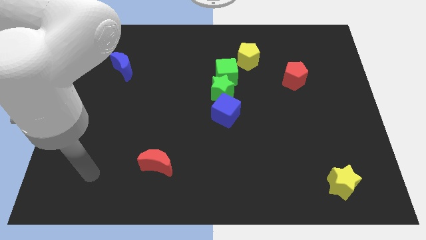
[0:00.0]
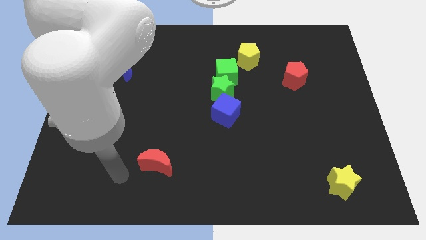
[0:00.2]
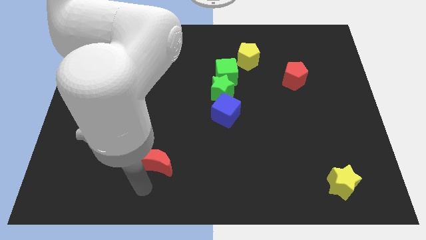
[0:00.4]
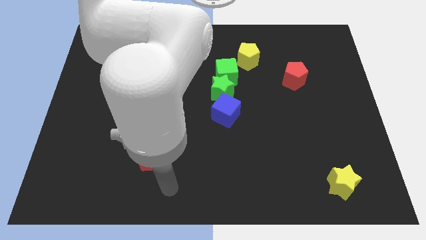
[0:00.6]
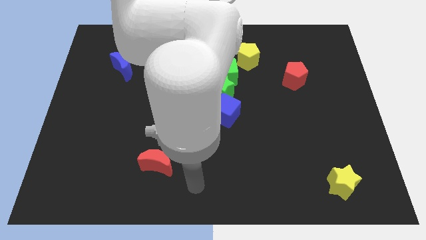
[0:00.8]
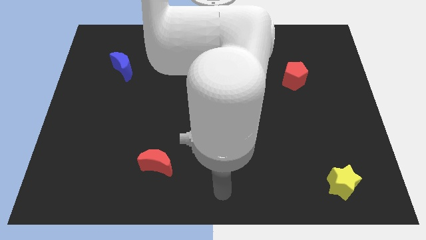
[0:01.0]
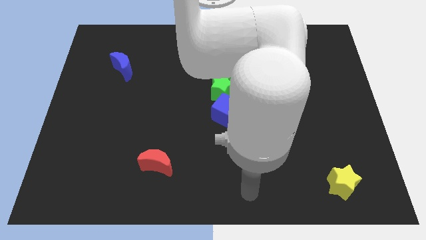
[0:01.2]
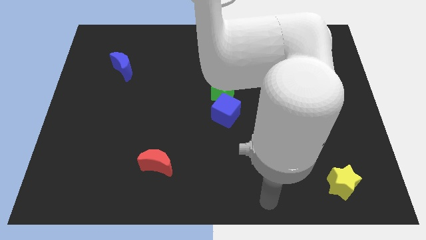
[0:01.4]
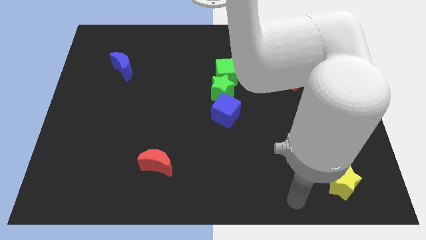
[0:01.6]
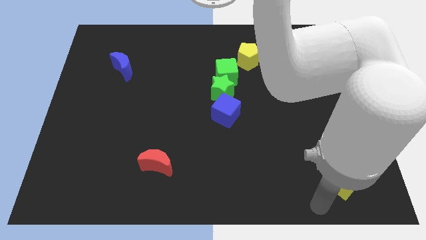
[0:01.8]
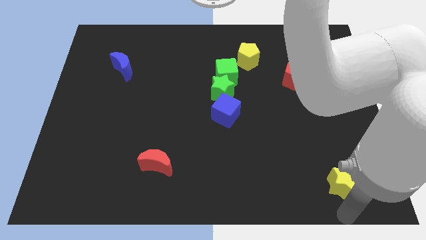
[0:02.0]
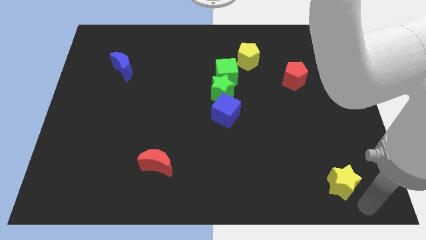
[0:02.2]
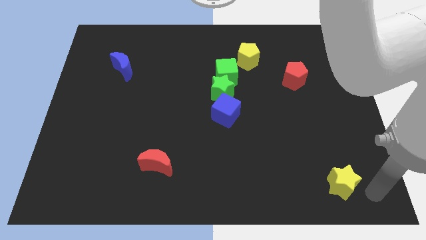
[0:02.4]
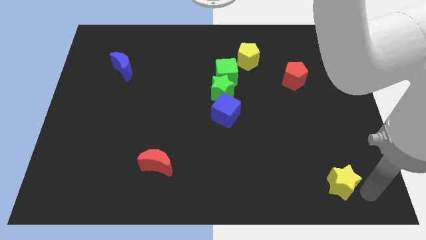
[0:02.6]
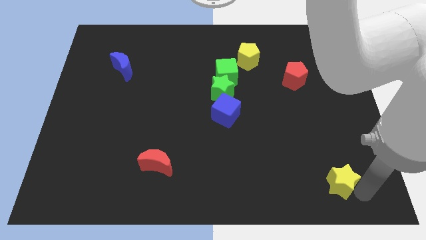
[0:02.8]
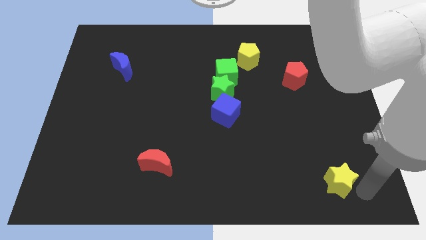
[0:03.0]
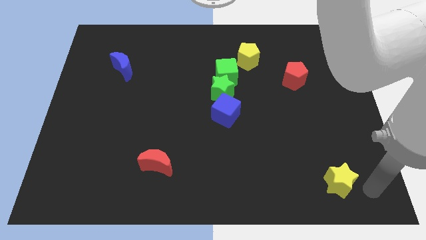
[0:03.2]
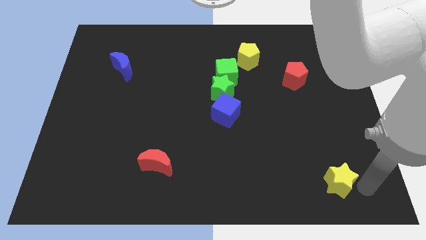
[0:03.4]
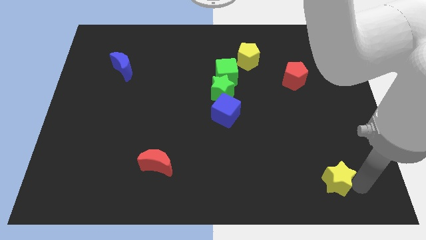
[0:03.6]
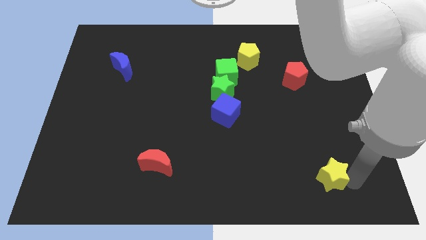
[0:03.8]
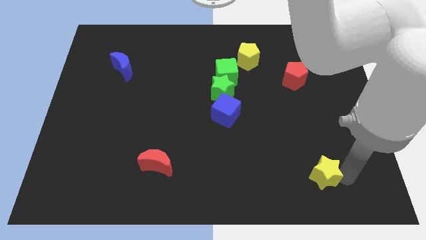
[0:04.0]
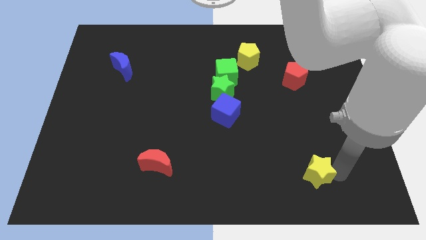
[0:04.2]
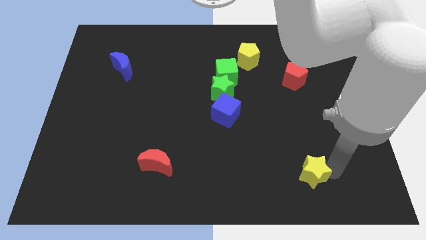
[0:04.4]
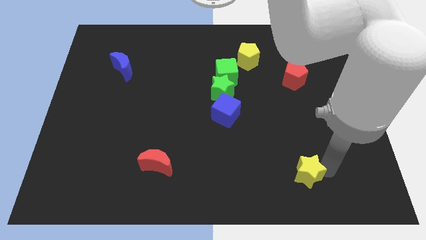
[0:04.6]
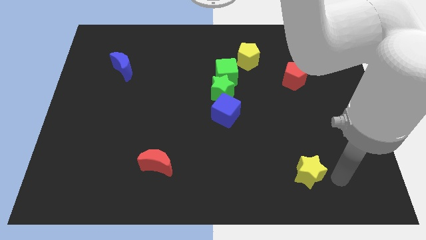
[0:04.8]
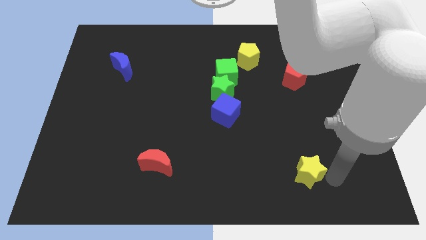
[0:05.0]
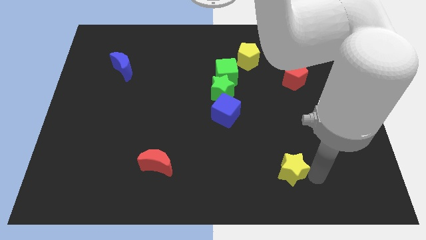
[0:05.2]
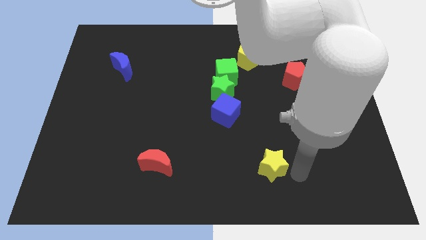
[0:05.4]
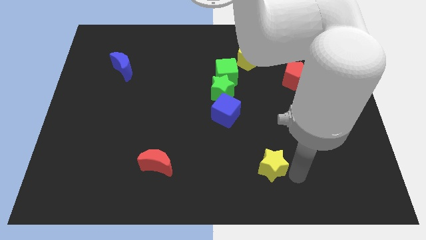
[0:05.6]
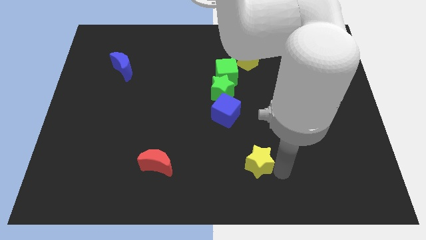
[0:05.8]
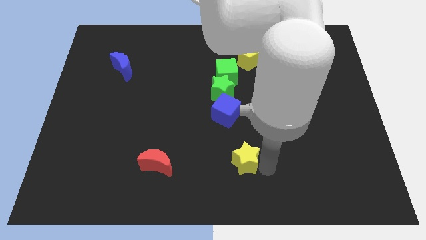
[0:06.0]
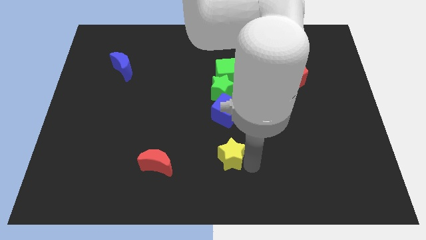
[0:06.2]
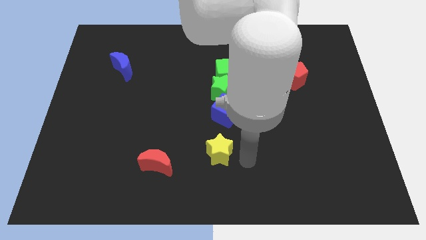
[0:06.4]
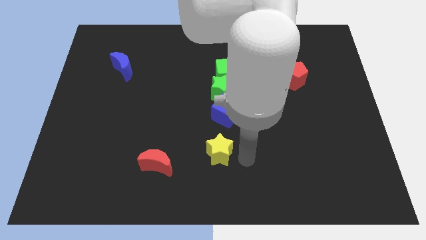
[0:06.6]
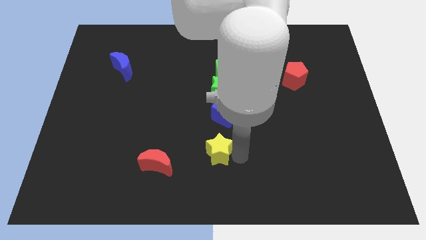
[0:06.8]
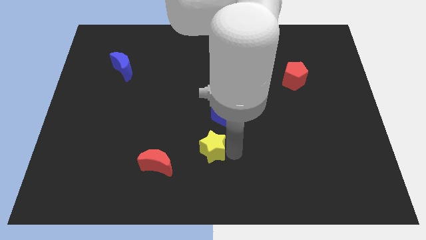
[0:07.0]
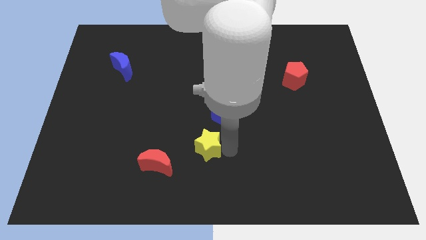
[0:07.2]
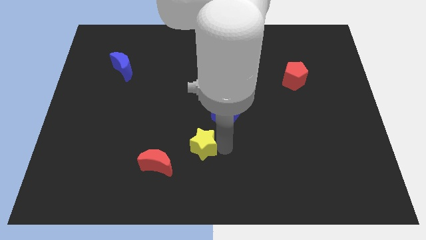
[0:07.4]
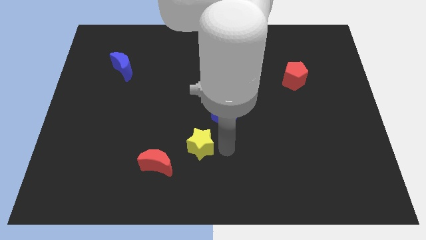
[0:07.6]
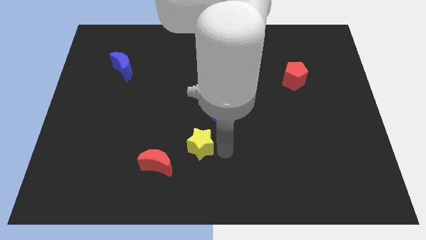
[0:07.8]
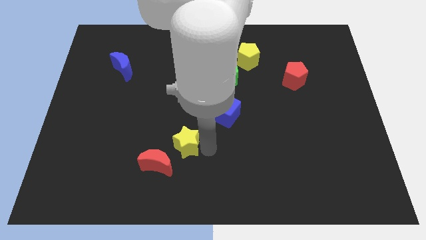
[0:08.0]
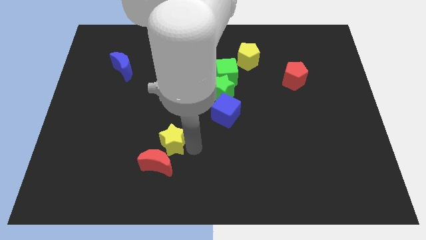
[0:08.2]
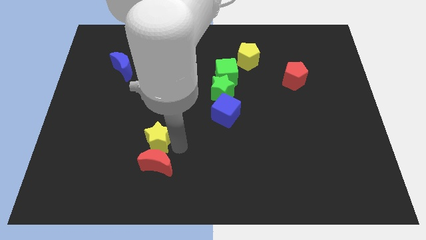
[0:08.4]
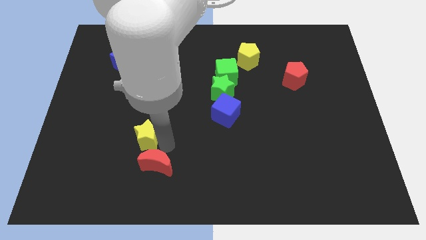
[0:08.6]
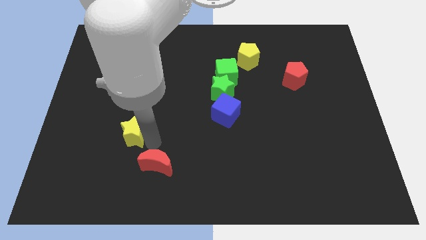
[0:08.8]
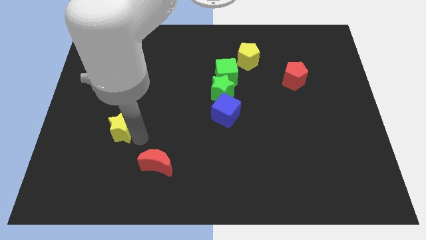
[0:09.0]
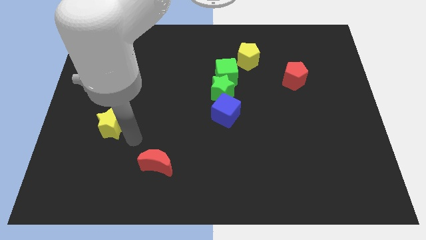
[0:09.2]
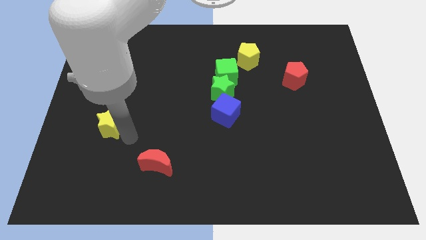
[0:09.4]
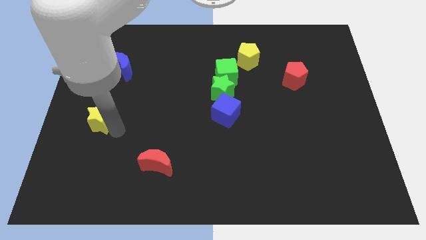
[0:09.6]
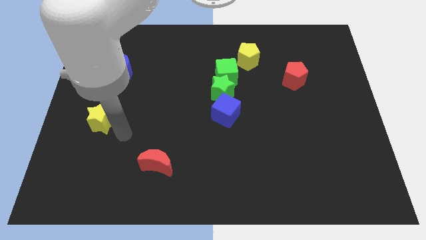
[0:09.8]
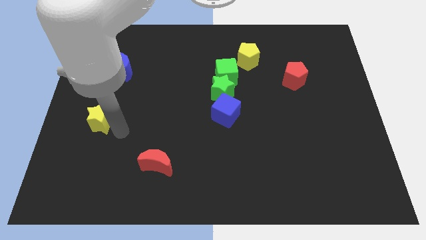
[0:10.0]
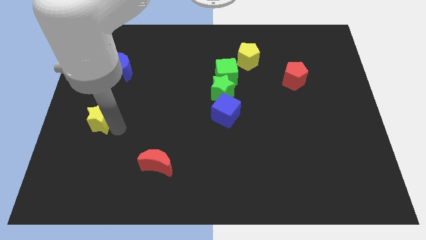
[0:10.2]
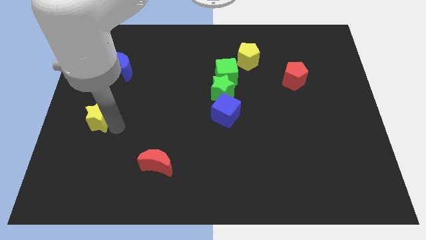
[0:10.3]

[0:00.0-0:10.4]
push the yellow star to the center left

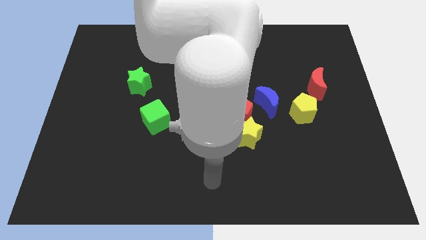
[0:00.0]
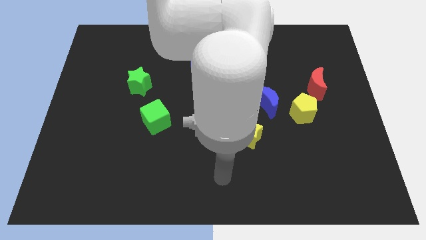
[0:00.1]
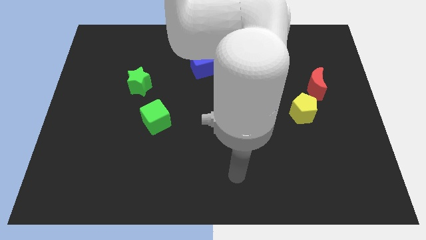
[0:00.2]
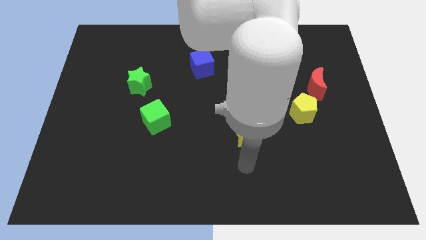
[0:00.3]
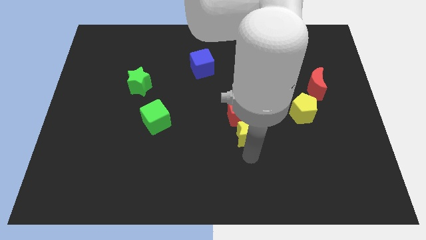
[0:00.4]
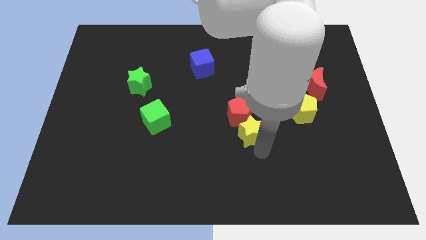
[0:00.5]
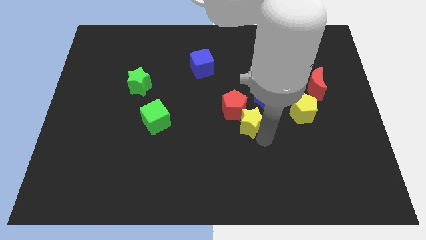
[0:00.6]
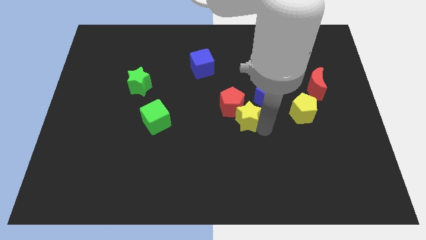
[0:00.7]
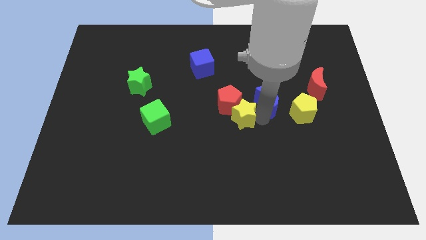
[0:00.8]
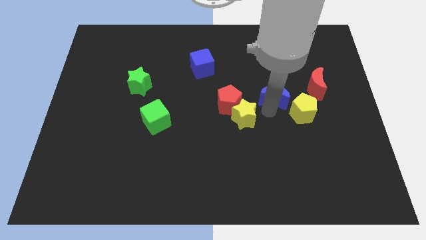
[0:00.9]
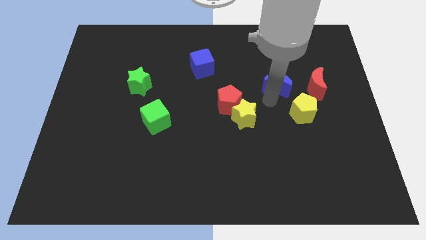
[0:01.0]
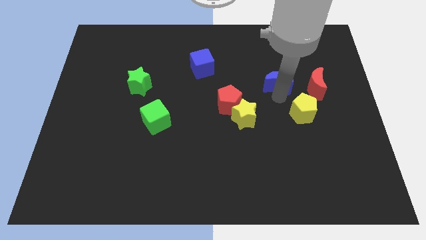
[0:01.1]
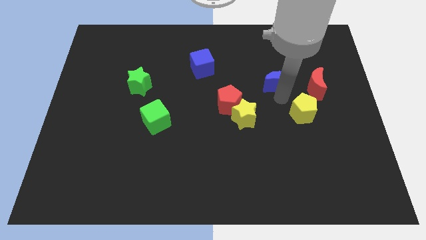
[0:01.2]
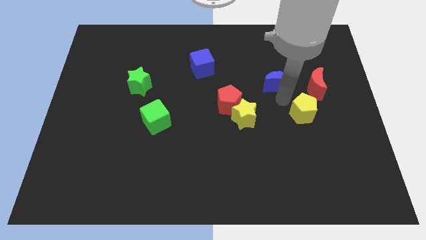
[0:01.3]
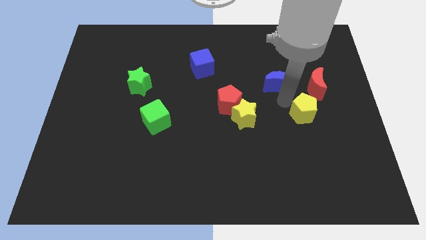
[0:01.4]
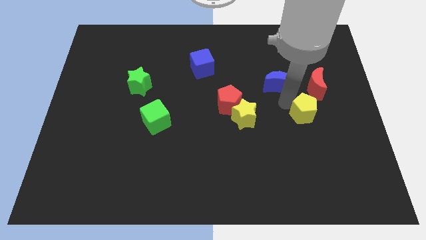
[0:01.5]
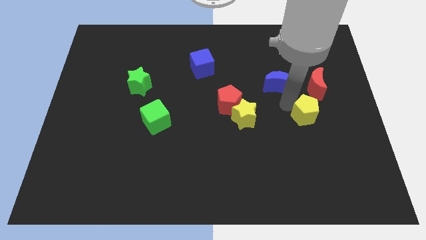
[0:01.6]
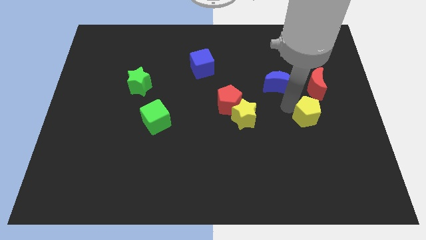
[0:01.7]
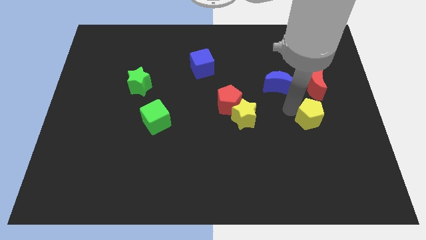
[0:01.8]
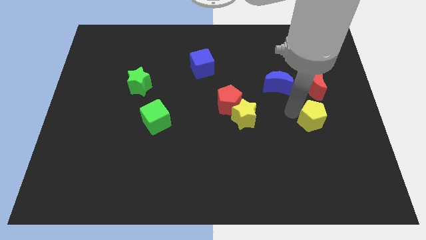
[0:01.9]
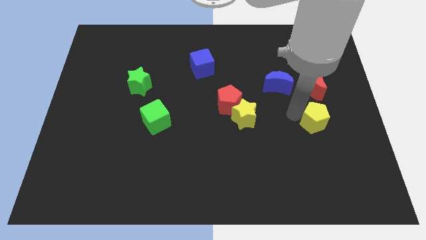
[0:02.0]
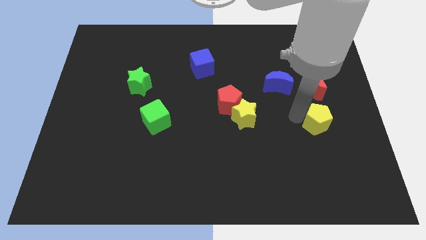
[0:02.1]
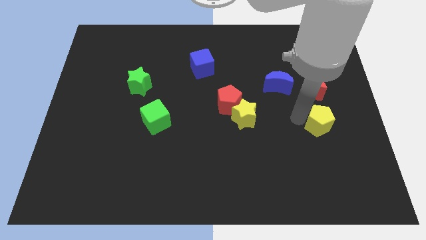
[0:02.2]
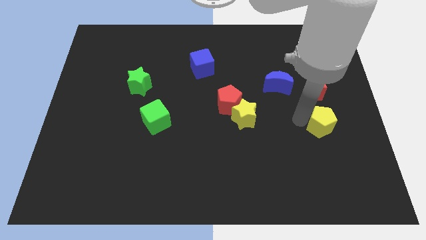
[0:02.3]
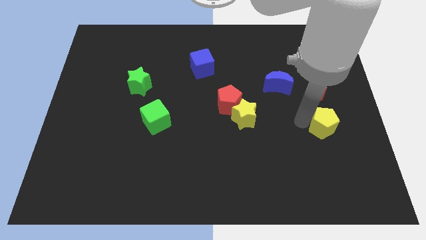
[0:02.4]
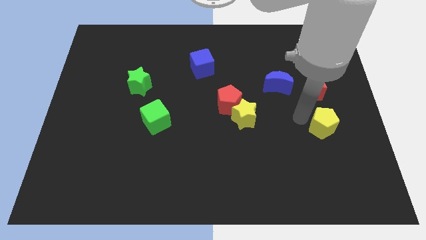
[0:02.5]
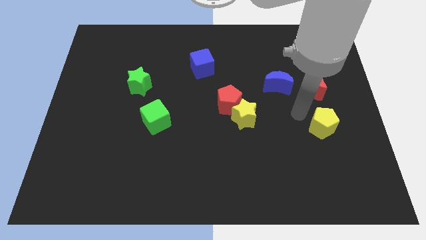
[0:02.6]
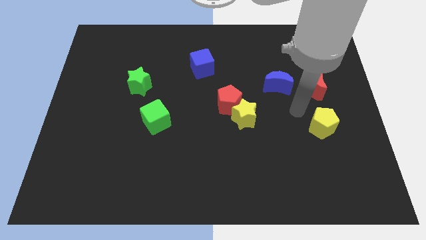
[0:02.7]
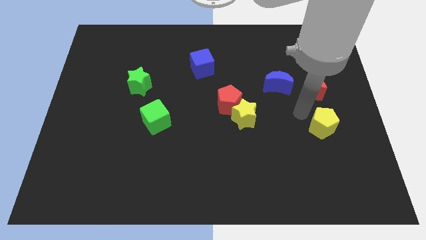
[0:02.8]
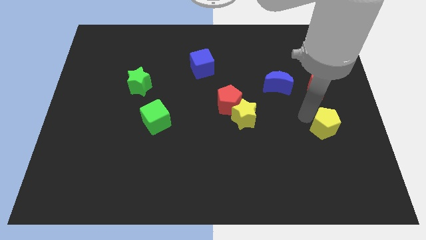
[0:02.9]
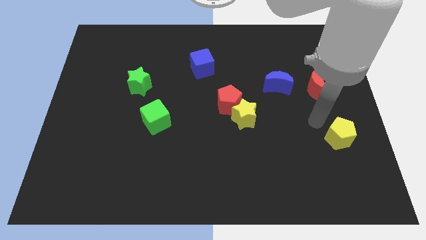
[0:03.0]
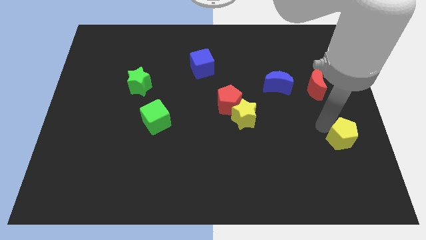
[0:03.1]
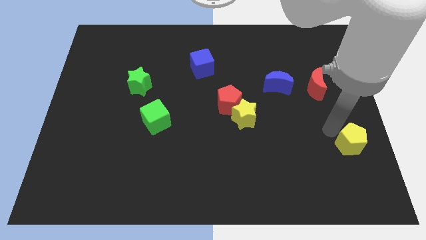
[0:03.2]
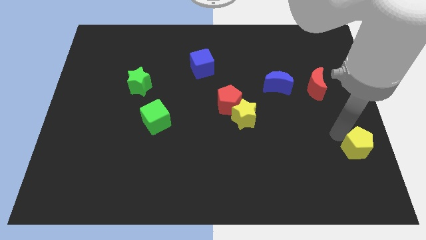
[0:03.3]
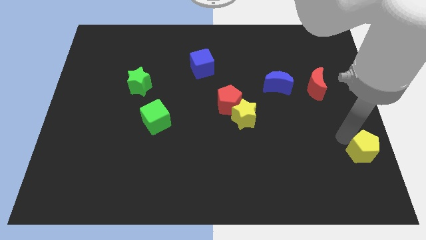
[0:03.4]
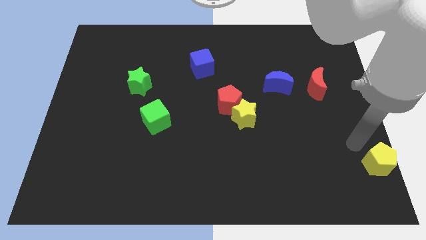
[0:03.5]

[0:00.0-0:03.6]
slide the yellow pentagon to the bottom right corner
